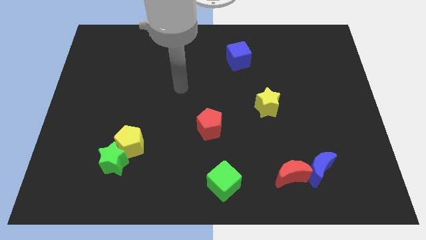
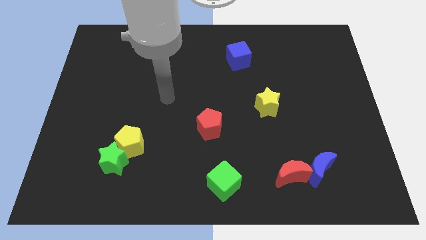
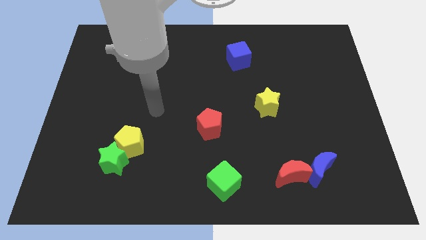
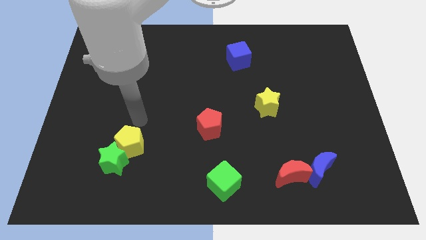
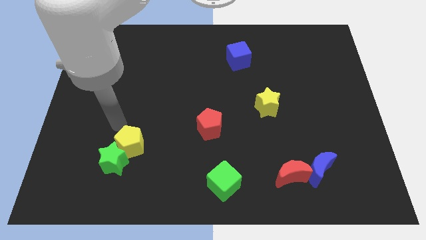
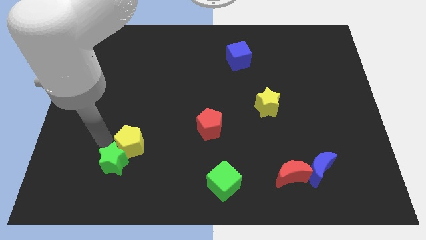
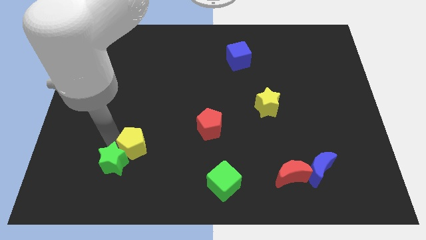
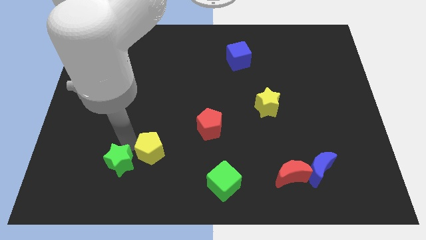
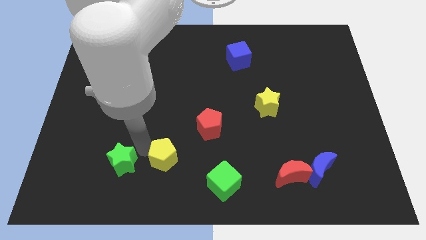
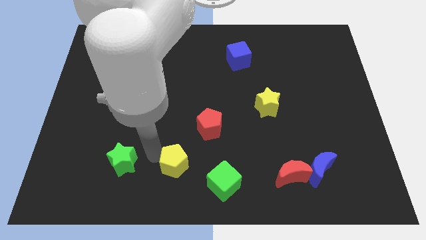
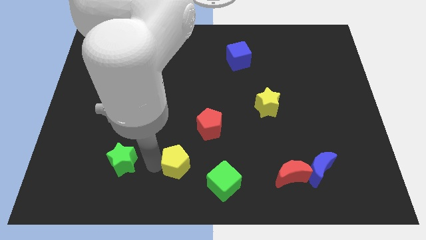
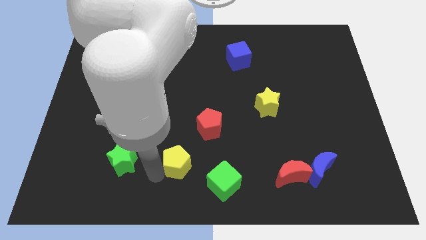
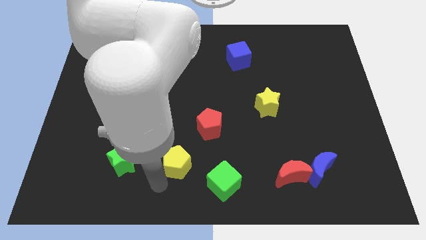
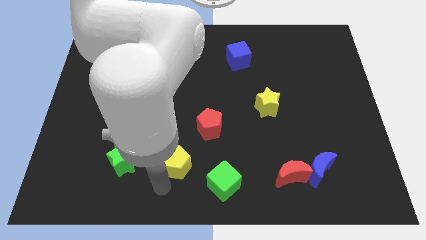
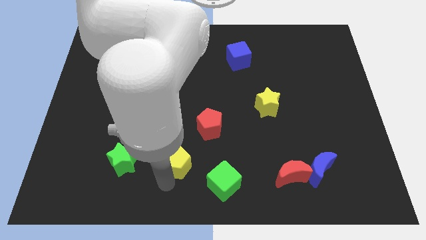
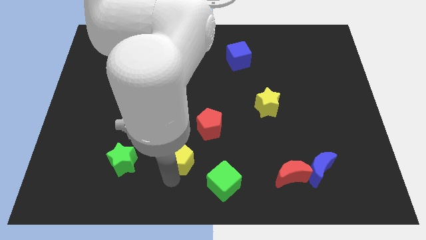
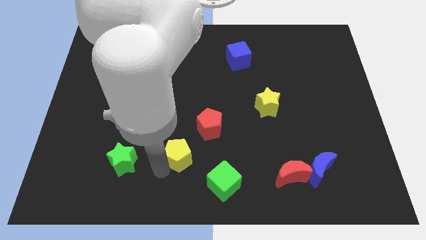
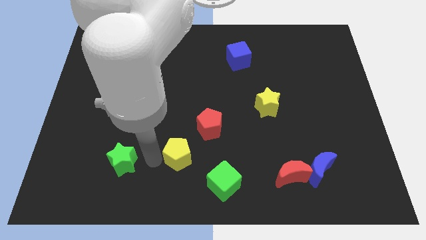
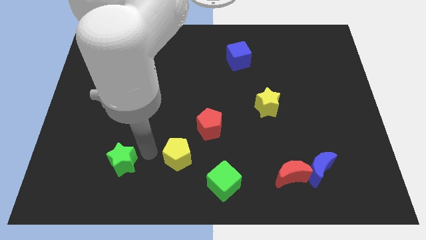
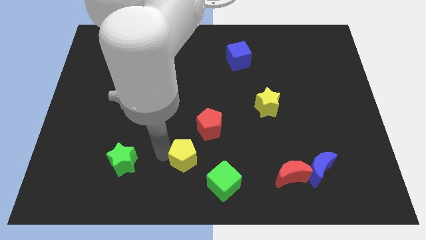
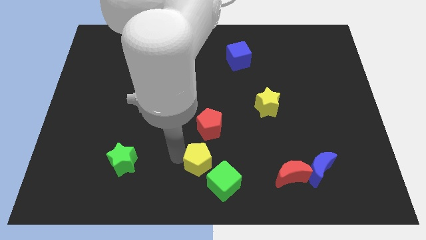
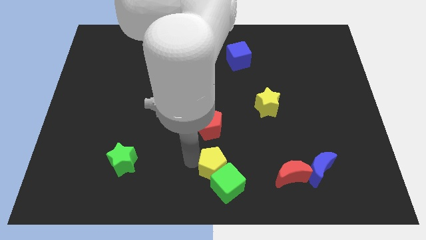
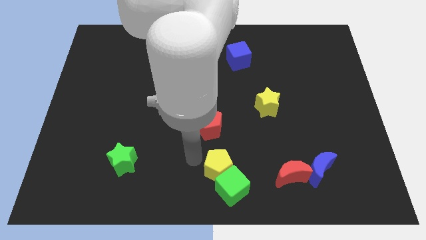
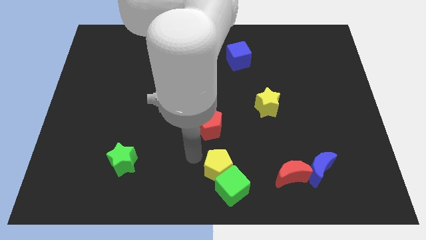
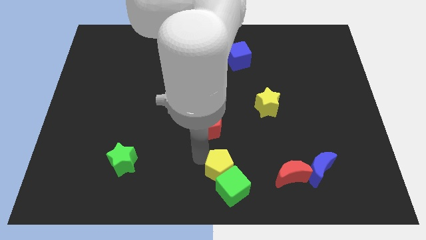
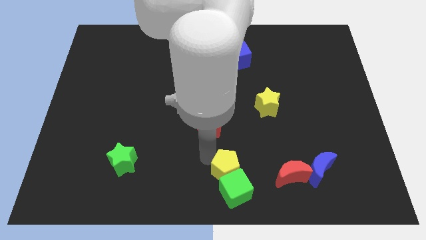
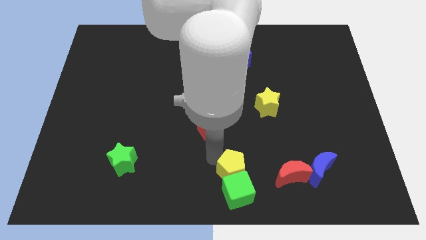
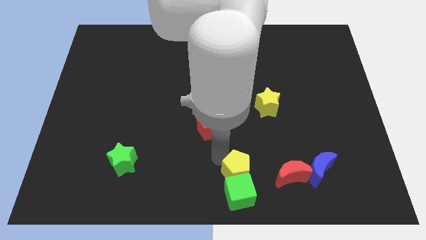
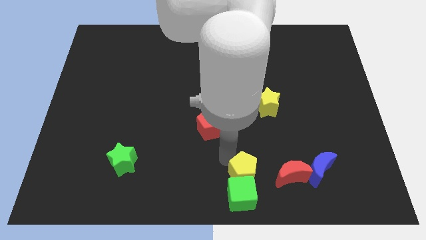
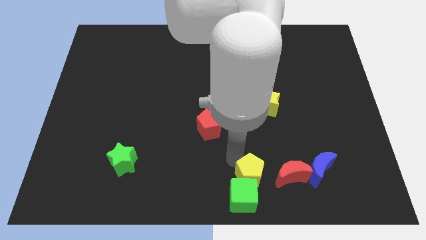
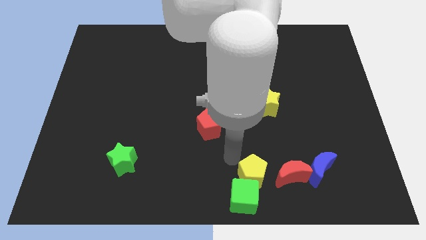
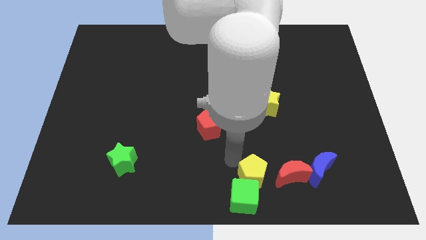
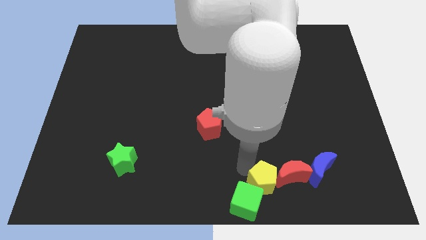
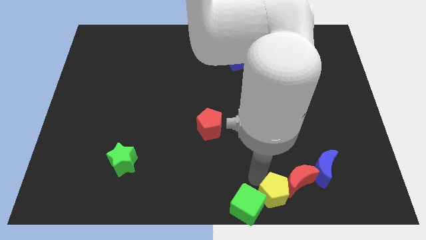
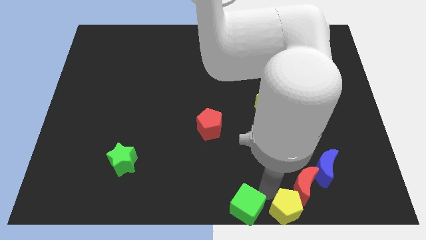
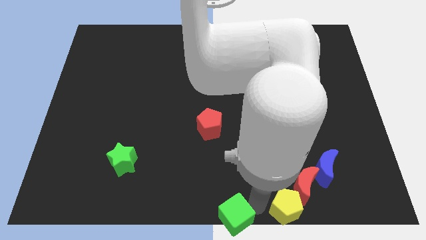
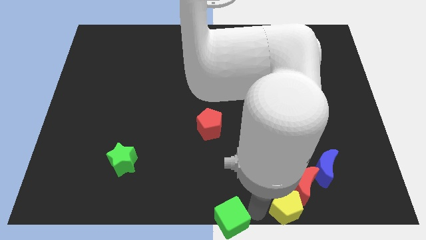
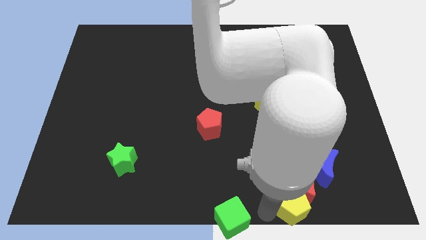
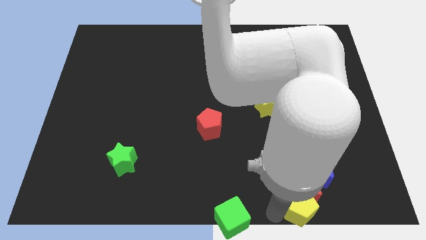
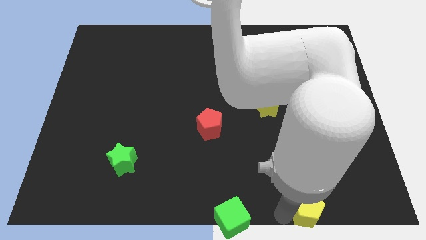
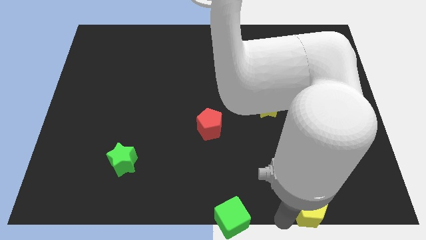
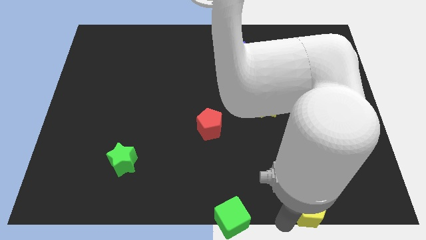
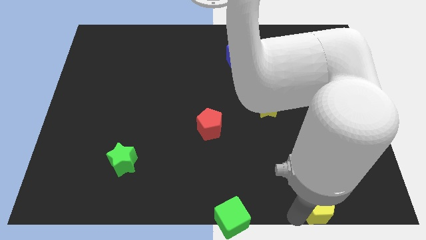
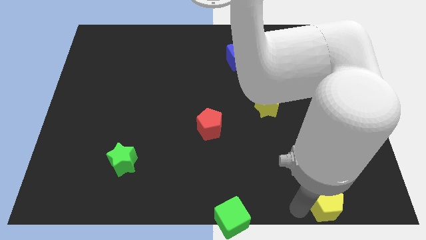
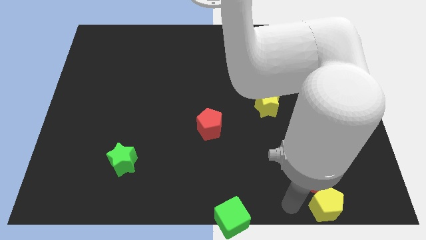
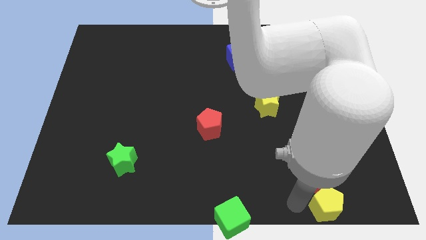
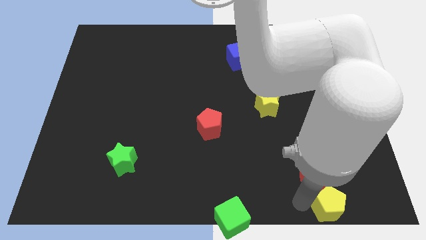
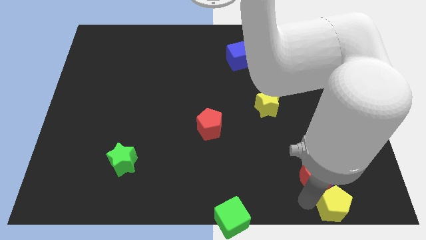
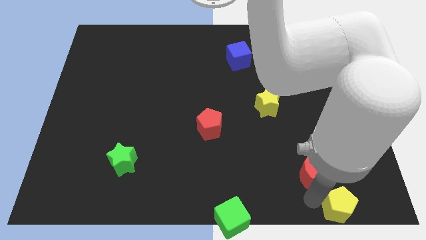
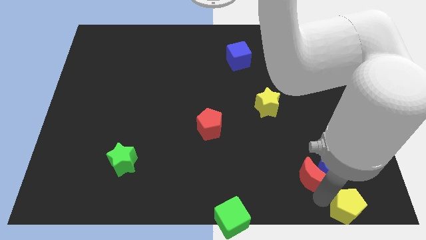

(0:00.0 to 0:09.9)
push the yellow pentagon to the bottom right of the board
